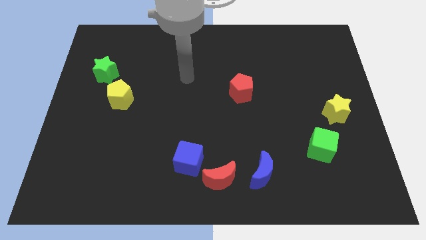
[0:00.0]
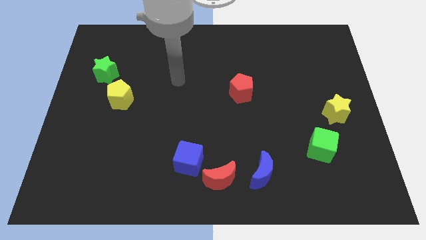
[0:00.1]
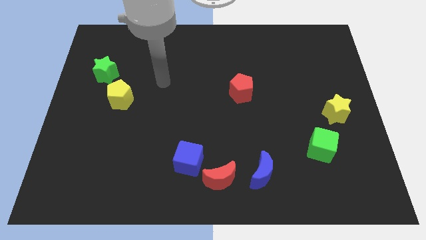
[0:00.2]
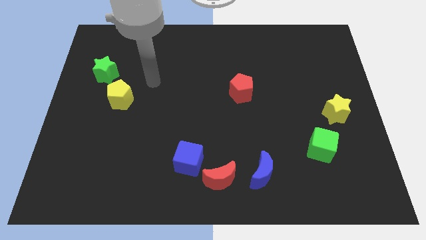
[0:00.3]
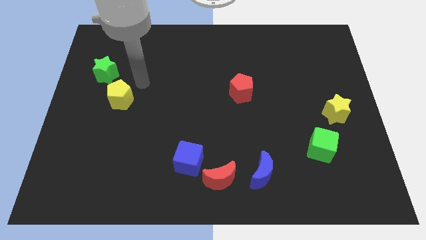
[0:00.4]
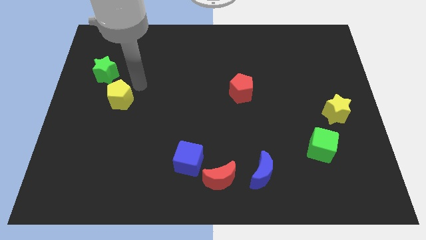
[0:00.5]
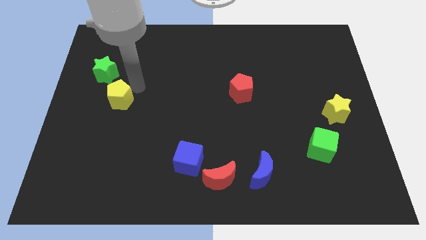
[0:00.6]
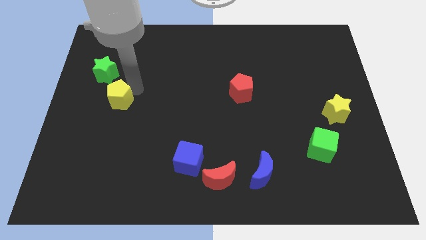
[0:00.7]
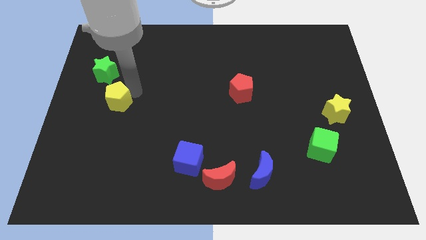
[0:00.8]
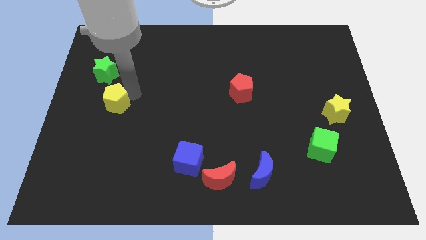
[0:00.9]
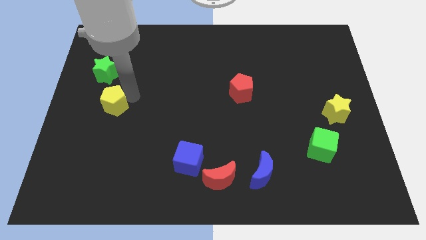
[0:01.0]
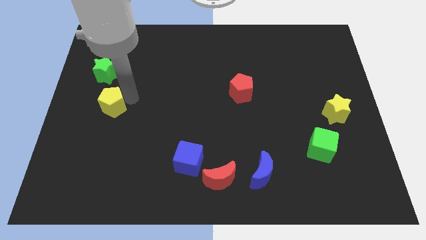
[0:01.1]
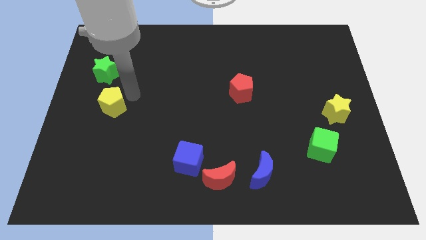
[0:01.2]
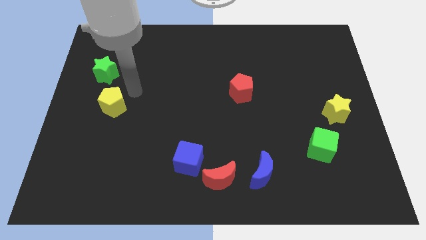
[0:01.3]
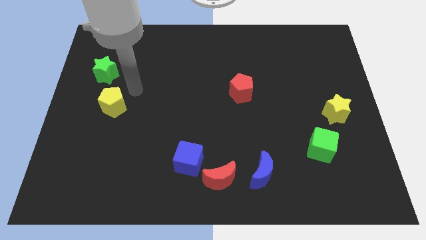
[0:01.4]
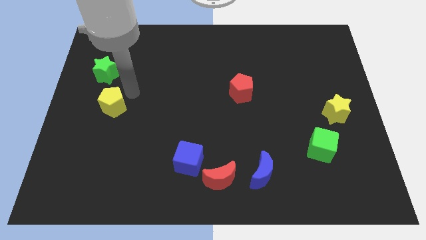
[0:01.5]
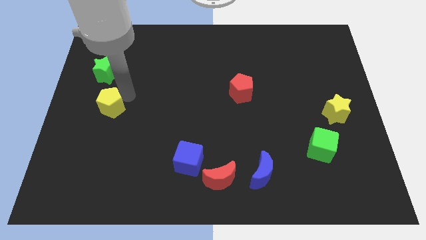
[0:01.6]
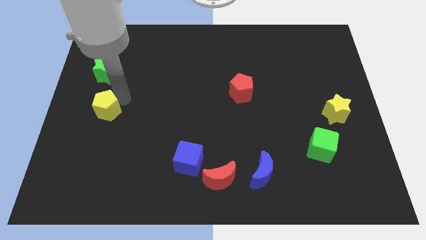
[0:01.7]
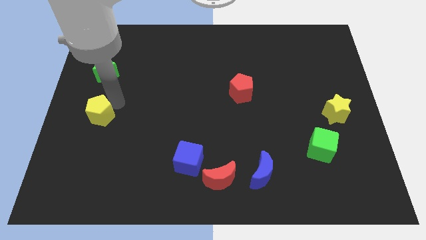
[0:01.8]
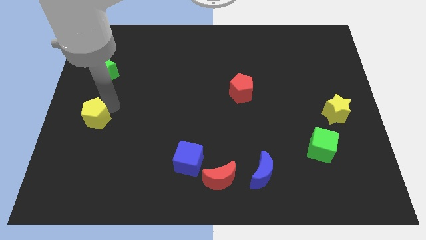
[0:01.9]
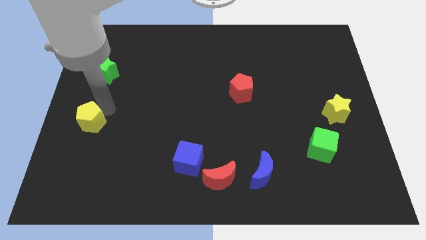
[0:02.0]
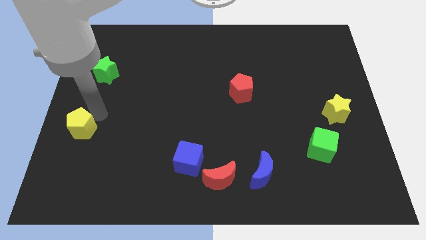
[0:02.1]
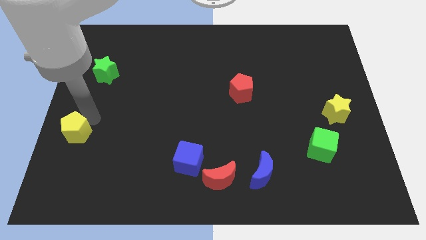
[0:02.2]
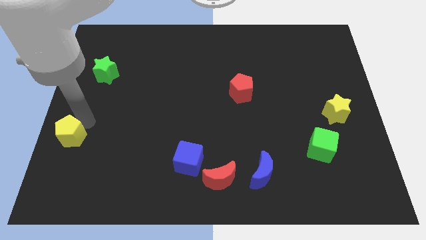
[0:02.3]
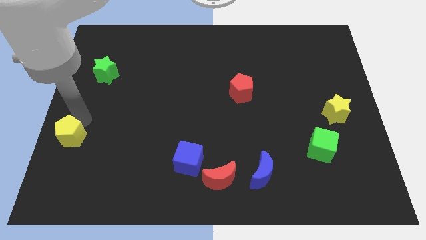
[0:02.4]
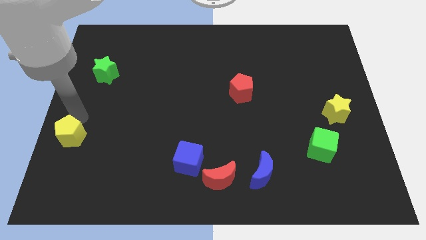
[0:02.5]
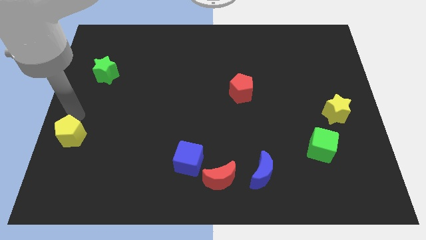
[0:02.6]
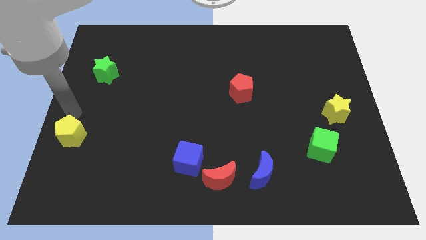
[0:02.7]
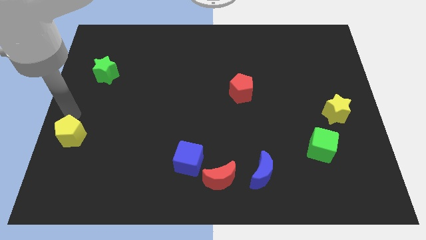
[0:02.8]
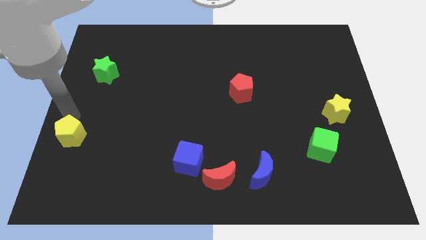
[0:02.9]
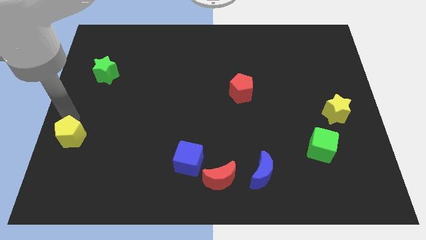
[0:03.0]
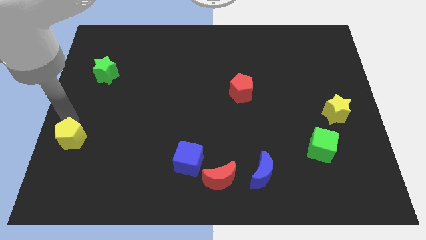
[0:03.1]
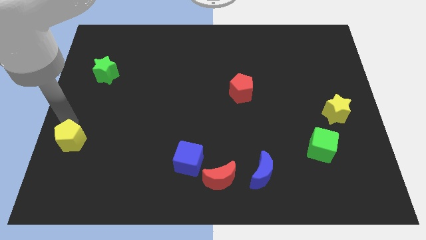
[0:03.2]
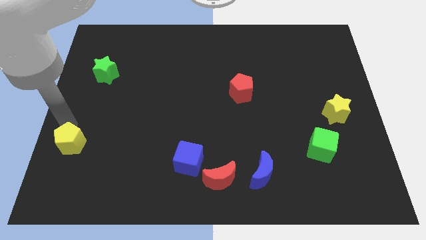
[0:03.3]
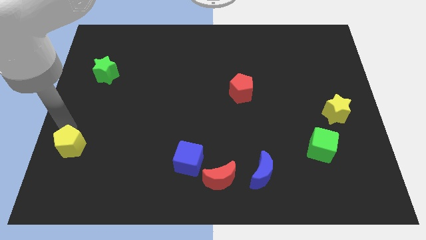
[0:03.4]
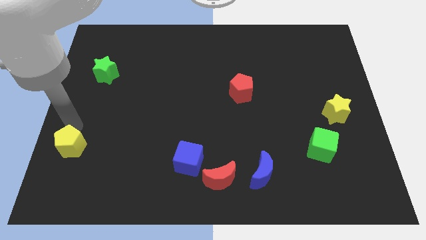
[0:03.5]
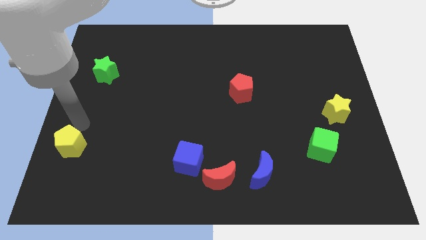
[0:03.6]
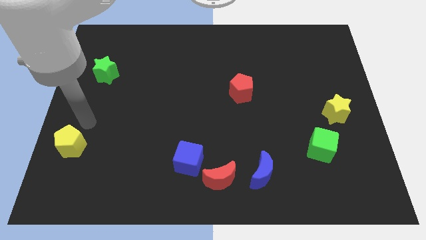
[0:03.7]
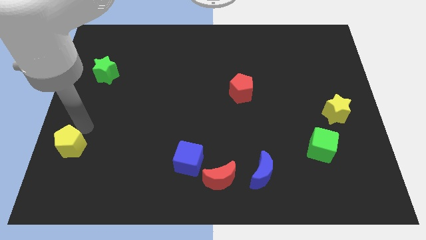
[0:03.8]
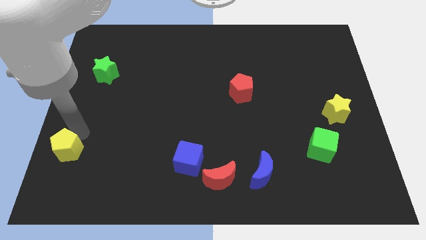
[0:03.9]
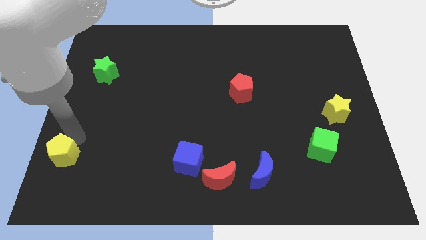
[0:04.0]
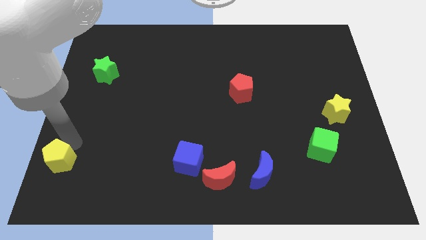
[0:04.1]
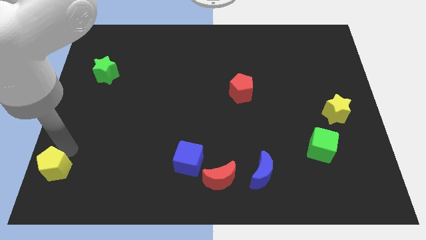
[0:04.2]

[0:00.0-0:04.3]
move the yellow pentagon to the bottom left of the board

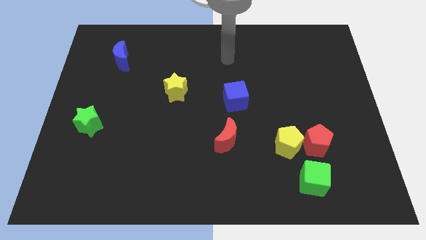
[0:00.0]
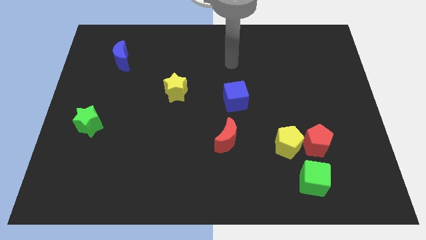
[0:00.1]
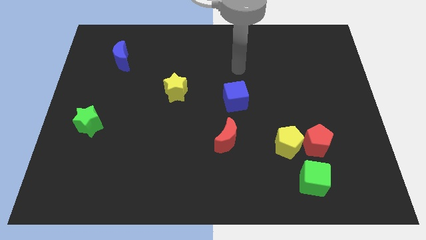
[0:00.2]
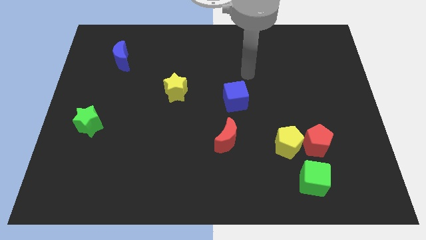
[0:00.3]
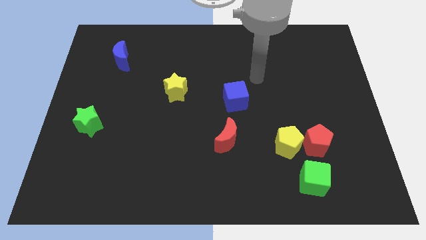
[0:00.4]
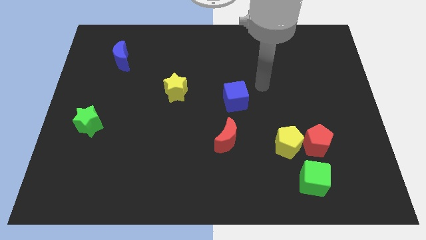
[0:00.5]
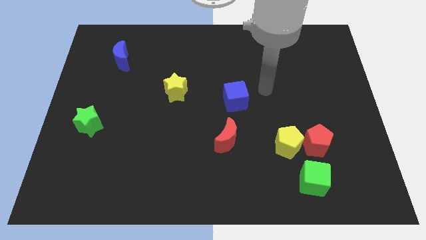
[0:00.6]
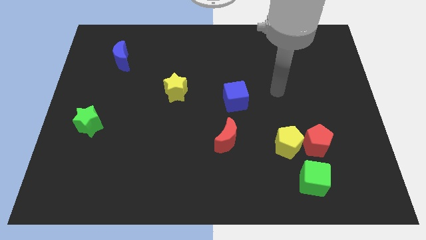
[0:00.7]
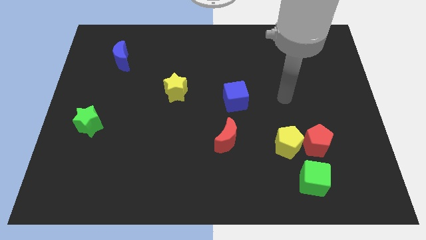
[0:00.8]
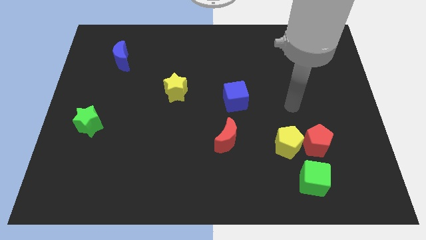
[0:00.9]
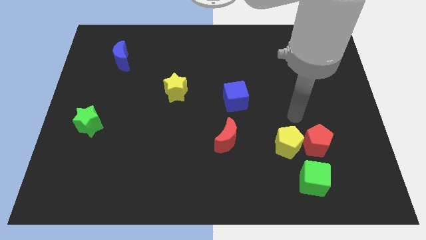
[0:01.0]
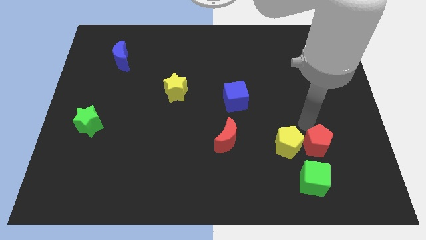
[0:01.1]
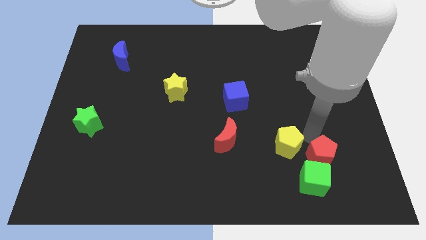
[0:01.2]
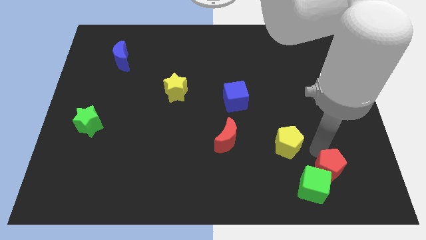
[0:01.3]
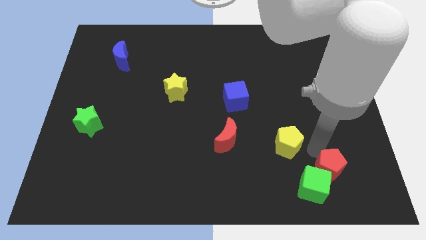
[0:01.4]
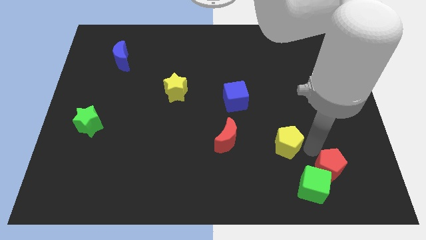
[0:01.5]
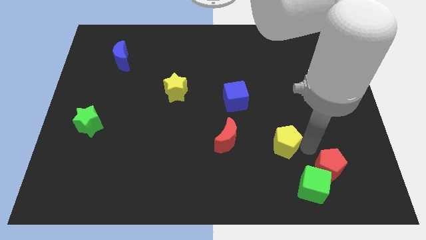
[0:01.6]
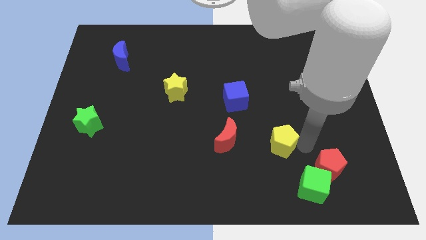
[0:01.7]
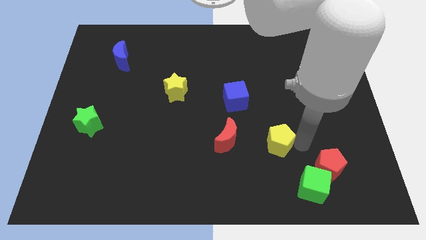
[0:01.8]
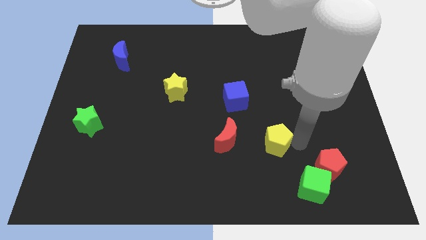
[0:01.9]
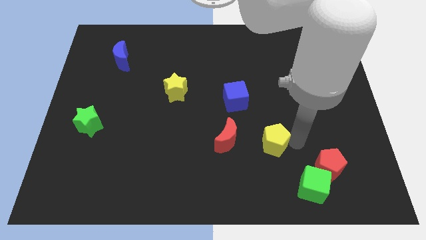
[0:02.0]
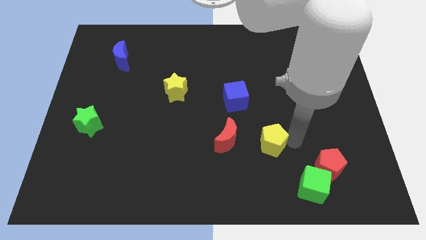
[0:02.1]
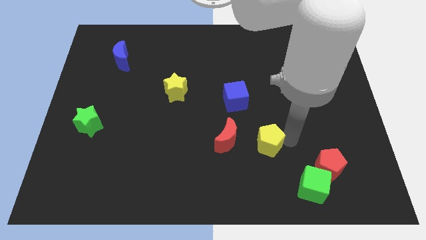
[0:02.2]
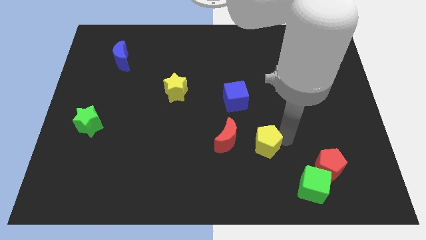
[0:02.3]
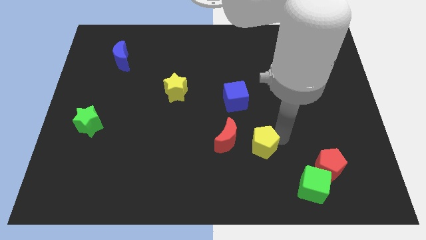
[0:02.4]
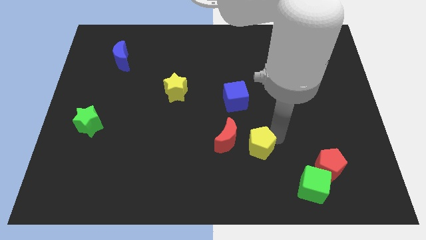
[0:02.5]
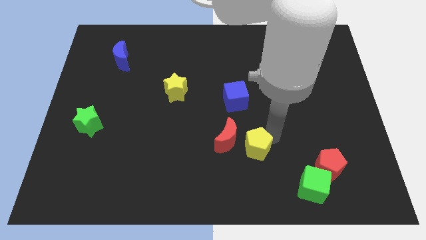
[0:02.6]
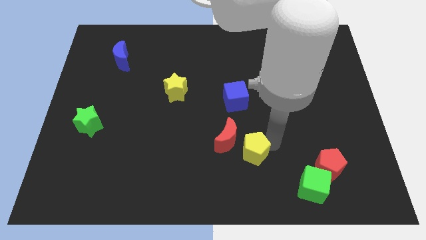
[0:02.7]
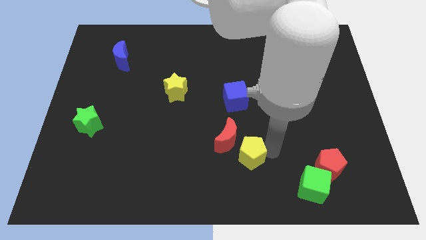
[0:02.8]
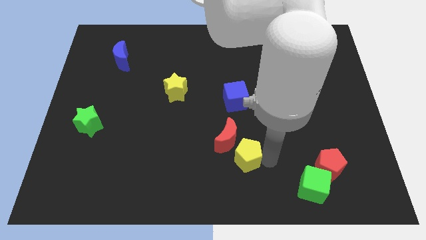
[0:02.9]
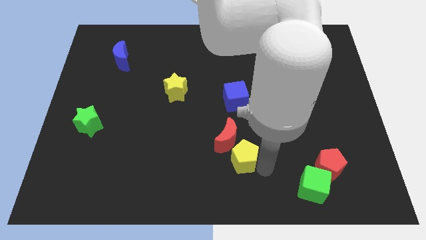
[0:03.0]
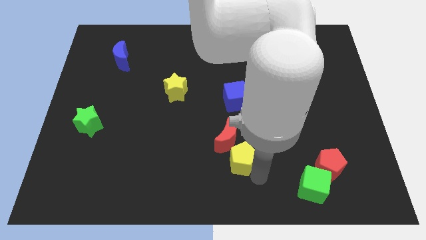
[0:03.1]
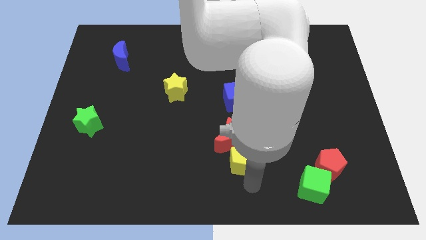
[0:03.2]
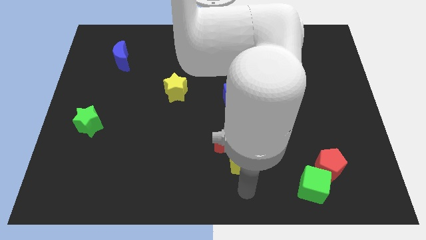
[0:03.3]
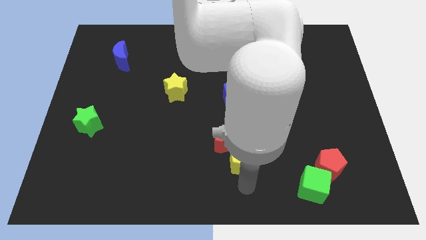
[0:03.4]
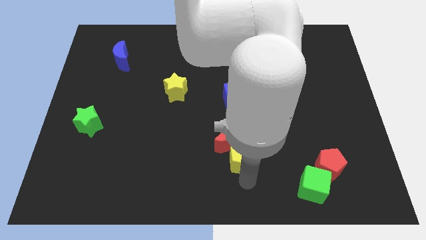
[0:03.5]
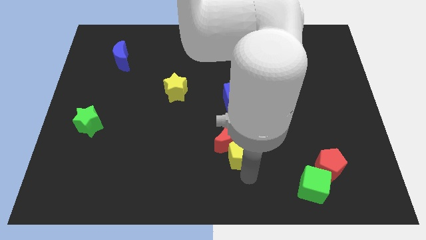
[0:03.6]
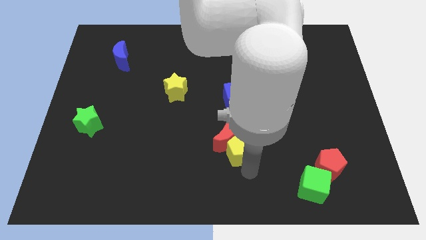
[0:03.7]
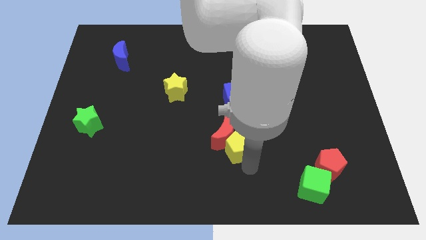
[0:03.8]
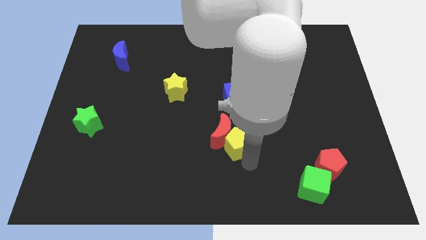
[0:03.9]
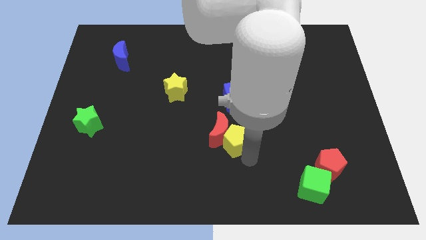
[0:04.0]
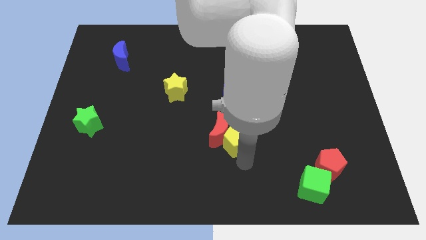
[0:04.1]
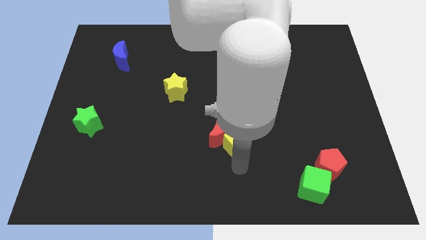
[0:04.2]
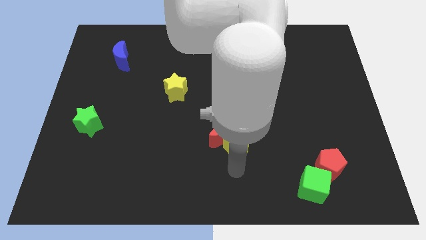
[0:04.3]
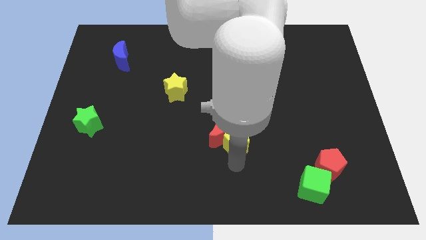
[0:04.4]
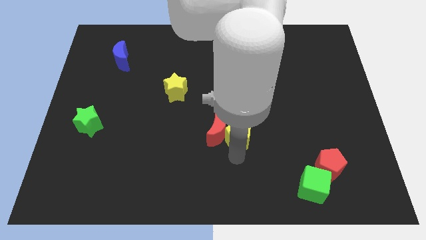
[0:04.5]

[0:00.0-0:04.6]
push the yellow pentagon to the middle
